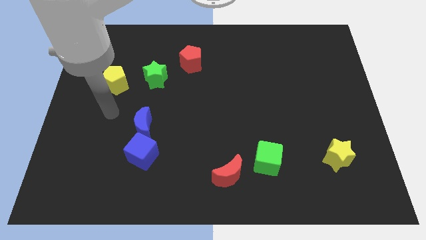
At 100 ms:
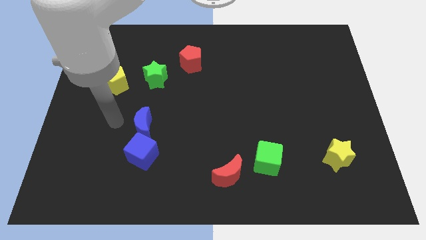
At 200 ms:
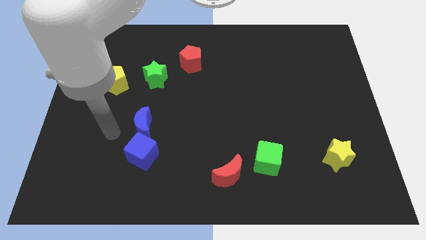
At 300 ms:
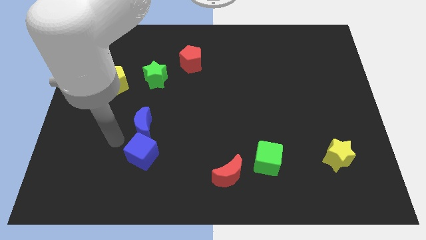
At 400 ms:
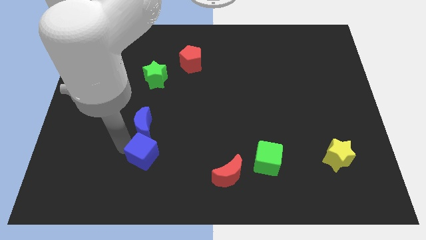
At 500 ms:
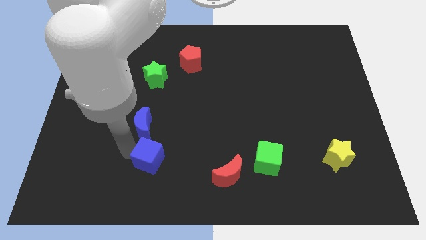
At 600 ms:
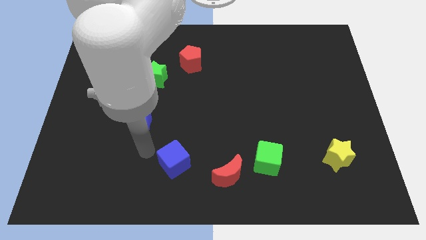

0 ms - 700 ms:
separate the blue moon from the blue cube

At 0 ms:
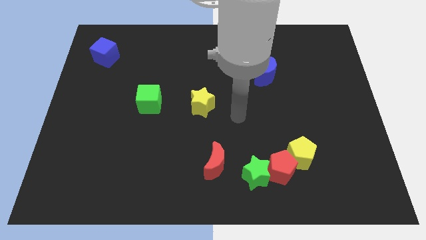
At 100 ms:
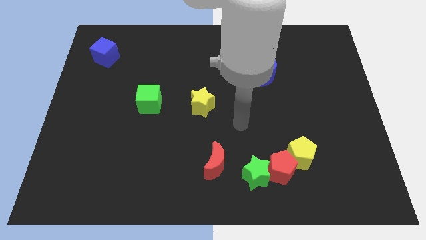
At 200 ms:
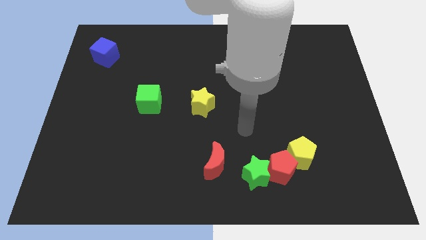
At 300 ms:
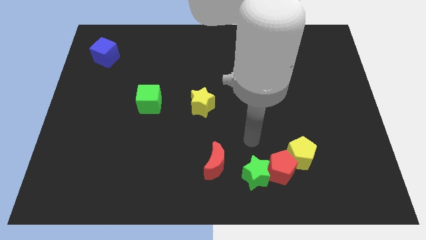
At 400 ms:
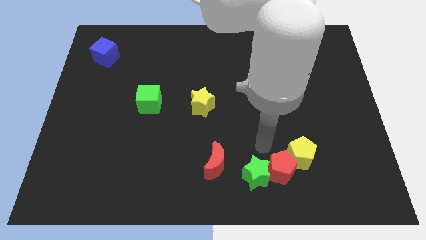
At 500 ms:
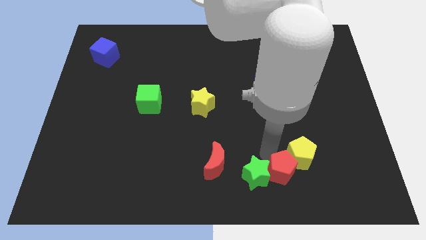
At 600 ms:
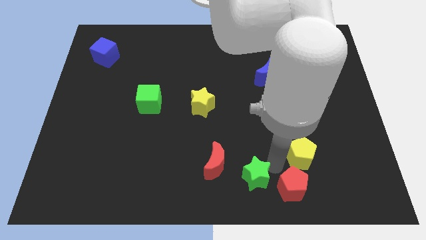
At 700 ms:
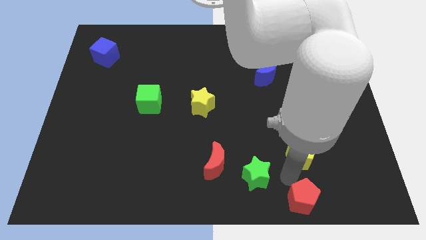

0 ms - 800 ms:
pull the yellow pentagon apart from the red pentagon

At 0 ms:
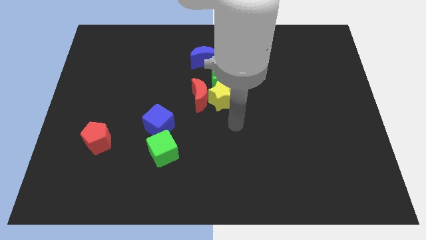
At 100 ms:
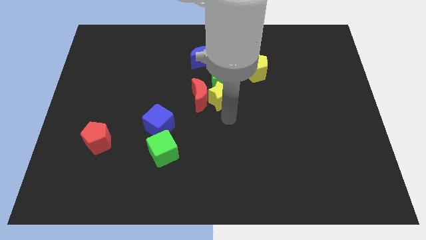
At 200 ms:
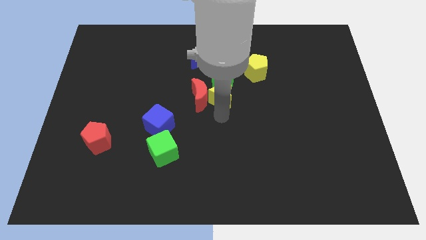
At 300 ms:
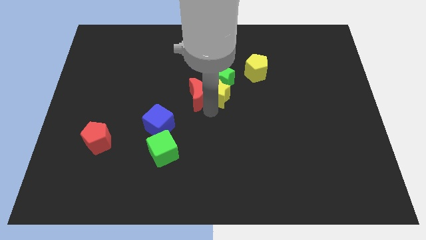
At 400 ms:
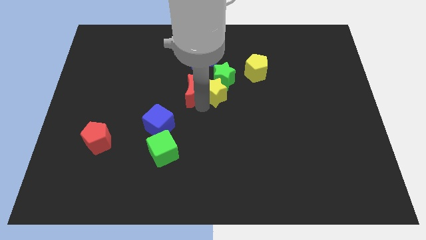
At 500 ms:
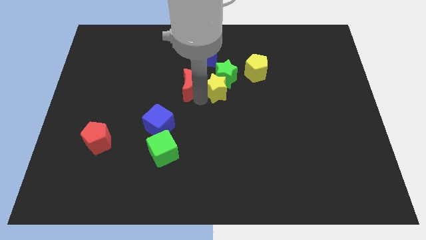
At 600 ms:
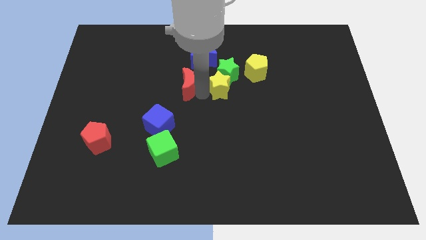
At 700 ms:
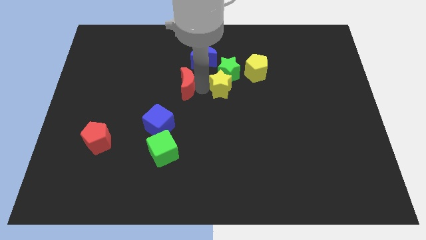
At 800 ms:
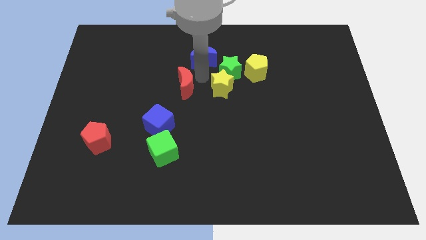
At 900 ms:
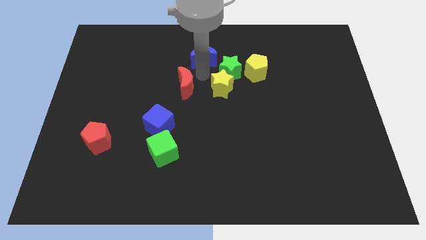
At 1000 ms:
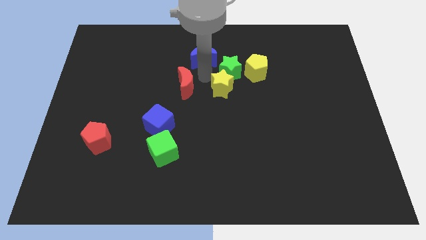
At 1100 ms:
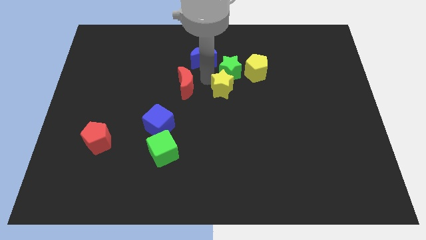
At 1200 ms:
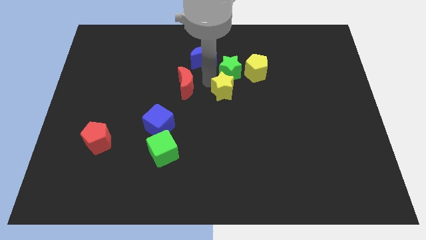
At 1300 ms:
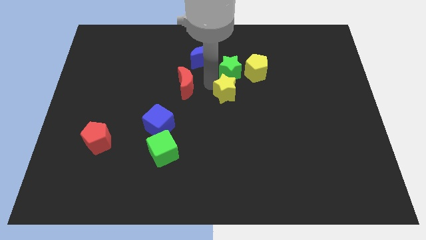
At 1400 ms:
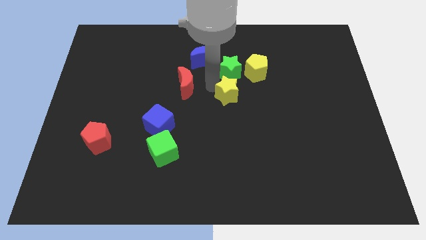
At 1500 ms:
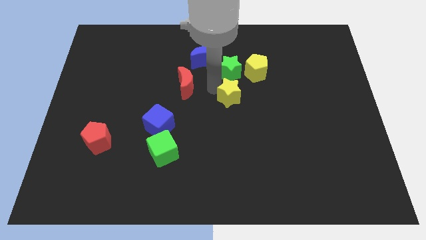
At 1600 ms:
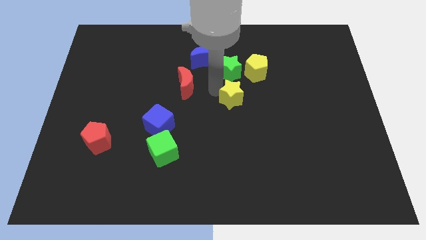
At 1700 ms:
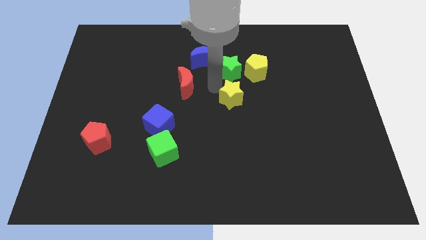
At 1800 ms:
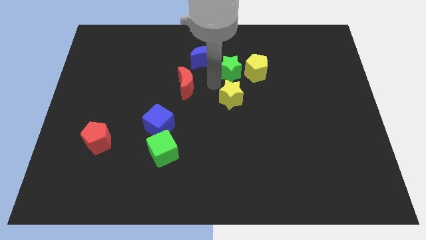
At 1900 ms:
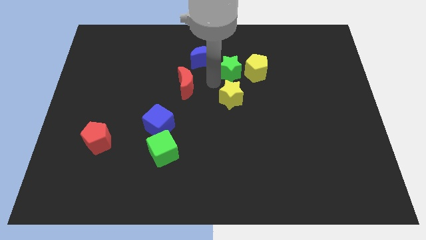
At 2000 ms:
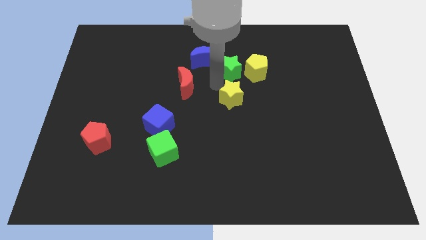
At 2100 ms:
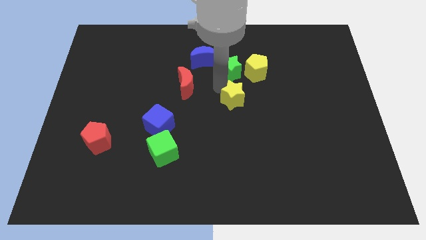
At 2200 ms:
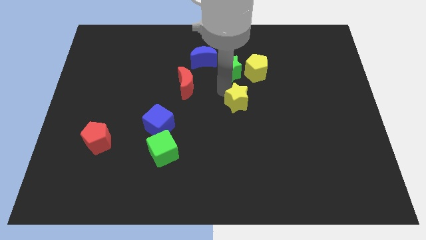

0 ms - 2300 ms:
pull the yellow star apart from the red moon and green star

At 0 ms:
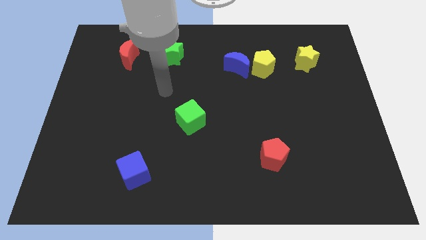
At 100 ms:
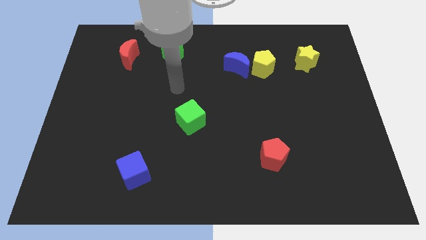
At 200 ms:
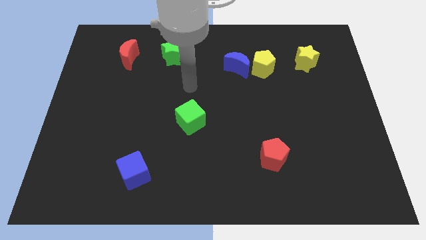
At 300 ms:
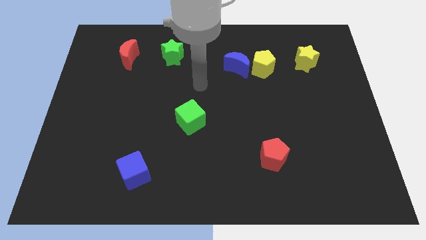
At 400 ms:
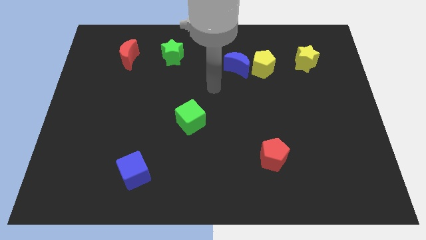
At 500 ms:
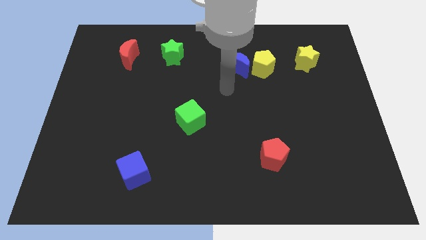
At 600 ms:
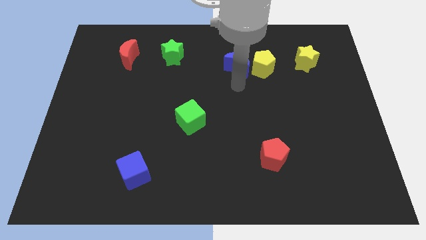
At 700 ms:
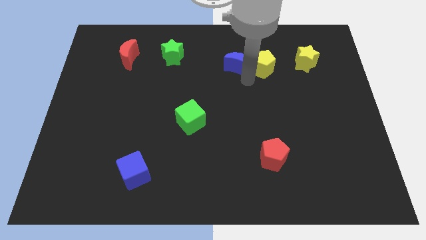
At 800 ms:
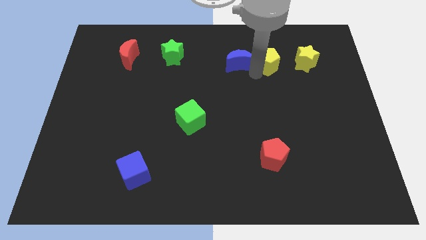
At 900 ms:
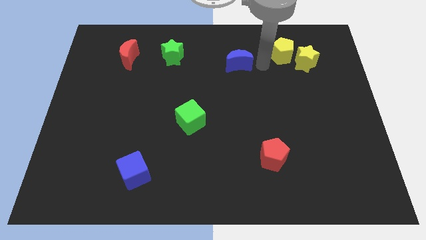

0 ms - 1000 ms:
move the blue moon away from the yellow pentagon

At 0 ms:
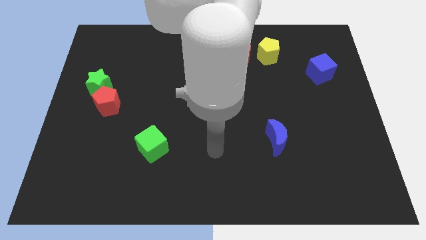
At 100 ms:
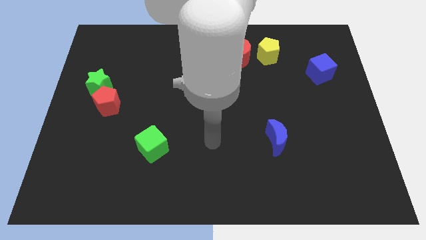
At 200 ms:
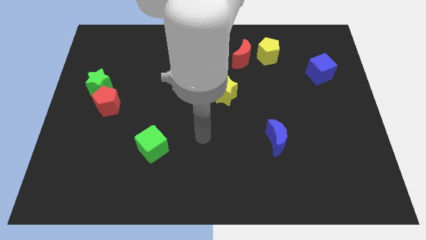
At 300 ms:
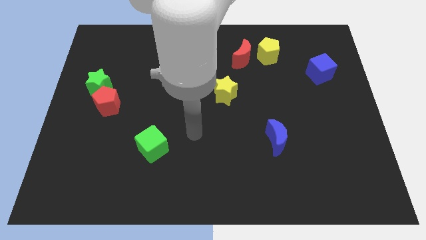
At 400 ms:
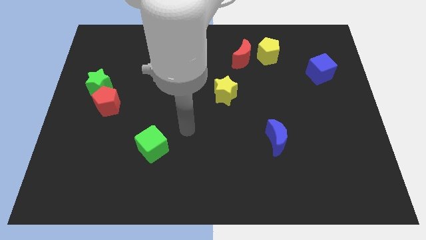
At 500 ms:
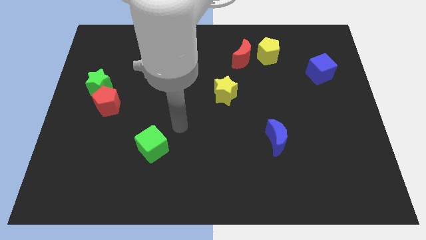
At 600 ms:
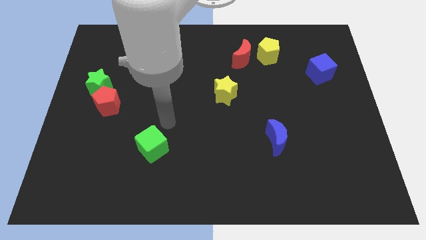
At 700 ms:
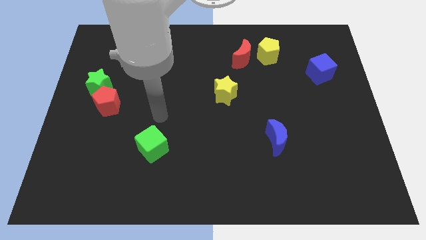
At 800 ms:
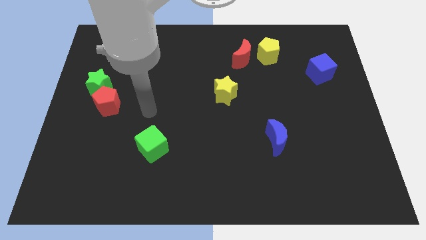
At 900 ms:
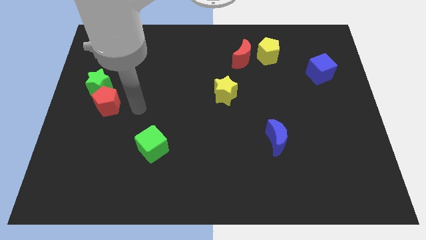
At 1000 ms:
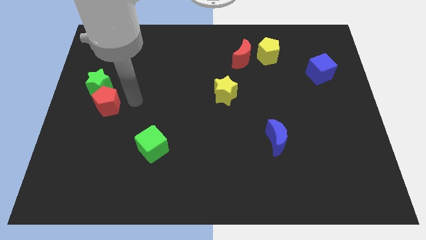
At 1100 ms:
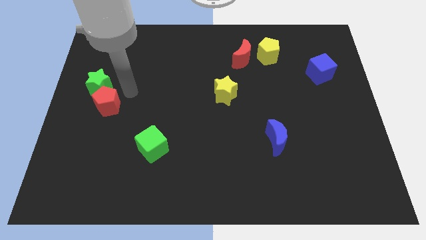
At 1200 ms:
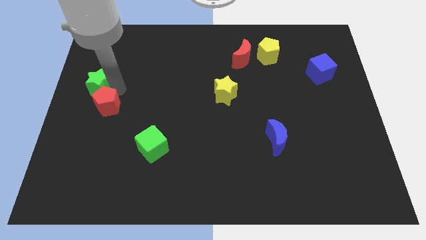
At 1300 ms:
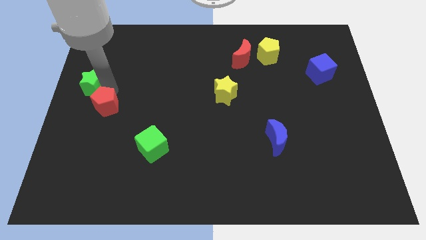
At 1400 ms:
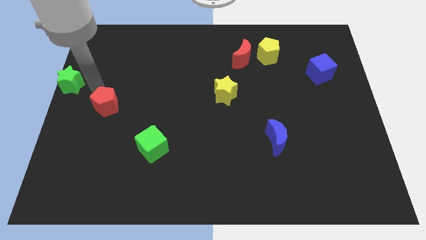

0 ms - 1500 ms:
pull the red pentagon apart from the green star

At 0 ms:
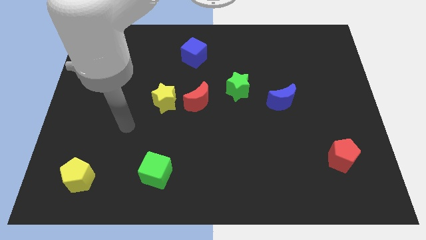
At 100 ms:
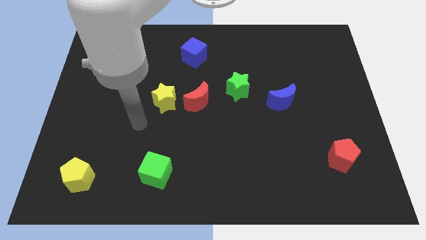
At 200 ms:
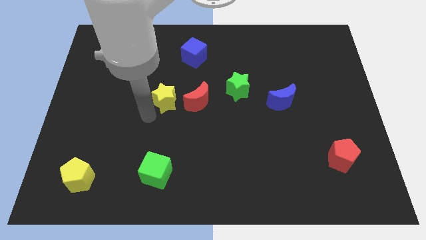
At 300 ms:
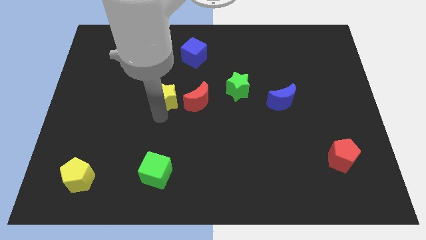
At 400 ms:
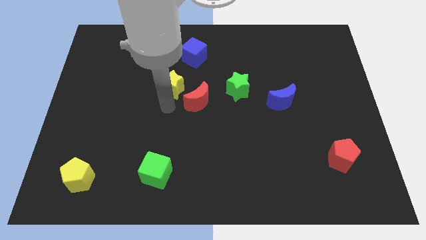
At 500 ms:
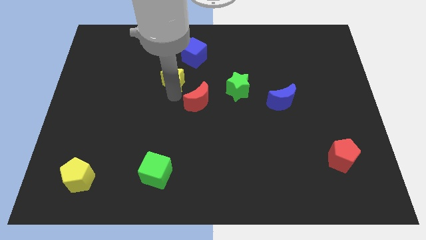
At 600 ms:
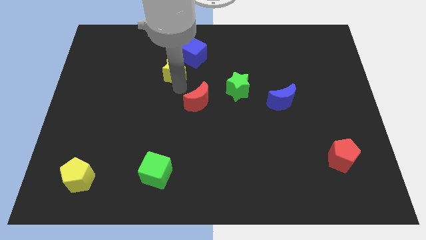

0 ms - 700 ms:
pull the red moon apart from the yellow star

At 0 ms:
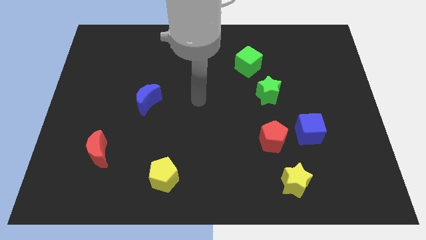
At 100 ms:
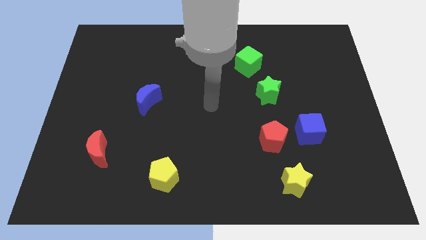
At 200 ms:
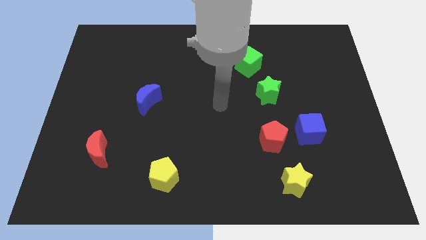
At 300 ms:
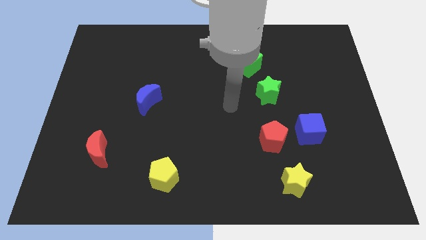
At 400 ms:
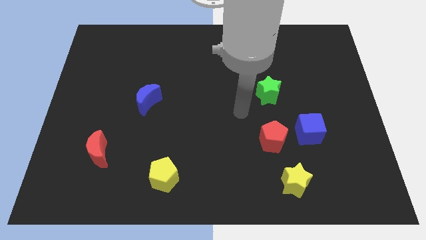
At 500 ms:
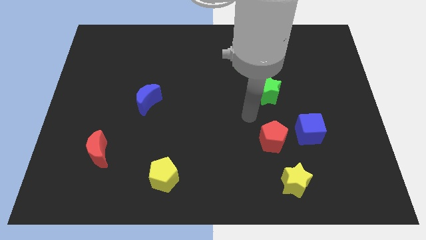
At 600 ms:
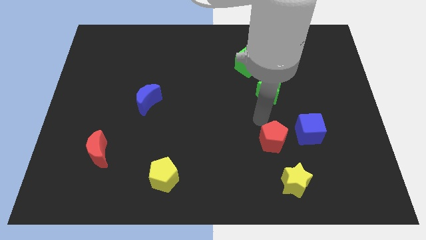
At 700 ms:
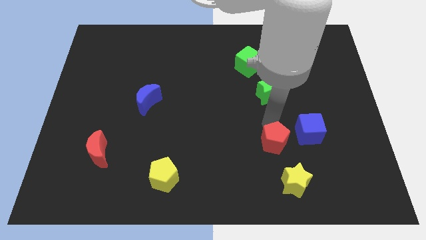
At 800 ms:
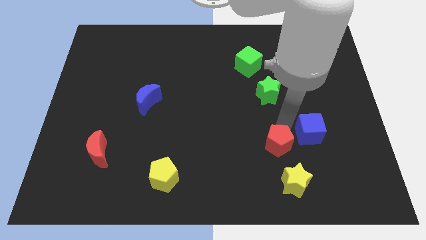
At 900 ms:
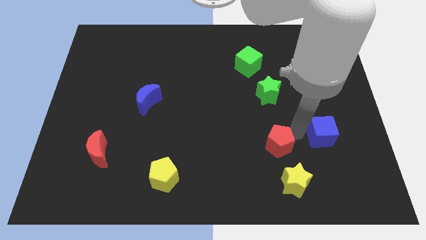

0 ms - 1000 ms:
pull the red pentagon apart from the blue cube

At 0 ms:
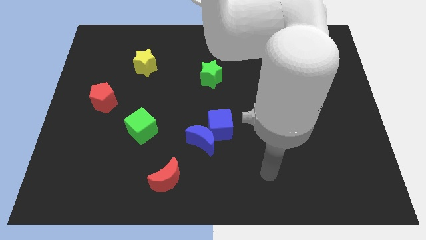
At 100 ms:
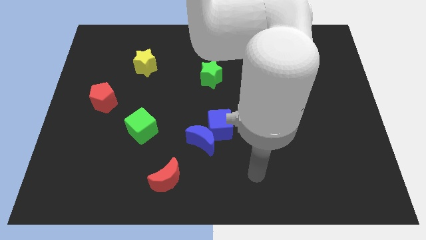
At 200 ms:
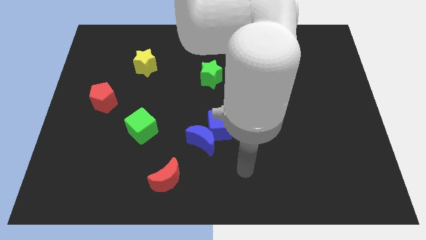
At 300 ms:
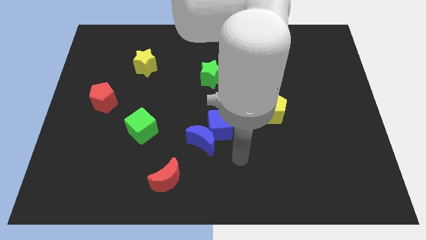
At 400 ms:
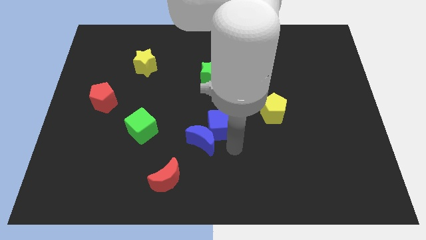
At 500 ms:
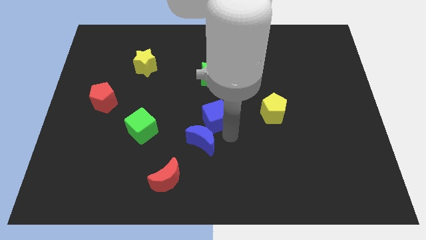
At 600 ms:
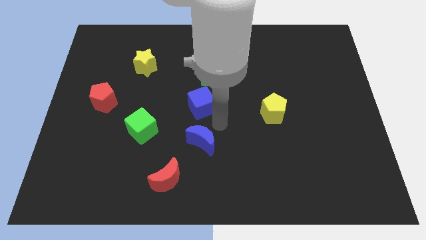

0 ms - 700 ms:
pull the blue moon apart from the blue cube

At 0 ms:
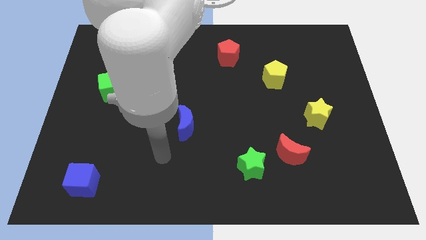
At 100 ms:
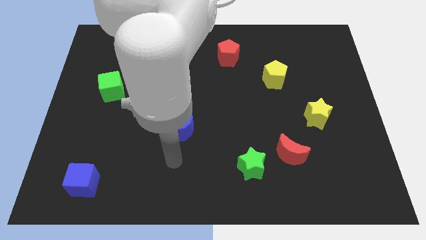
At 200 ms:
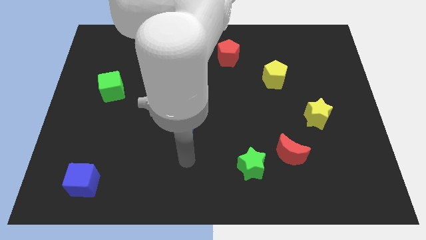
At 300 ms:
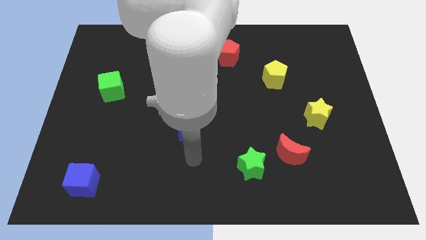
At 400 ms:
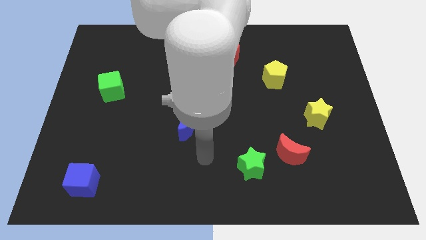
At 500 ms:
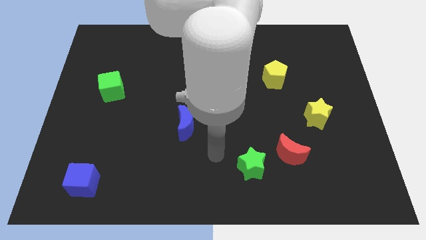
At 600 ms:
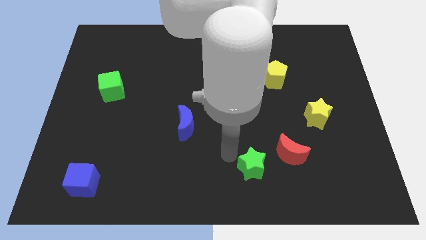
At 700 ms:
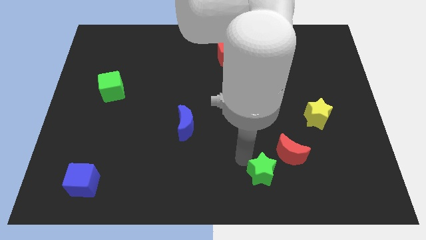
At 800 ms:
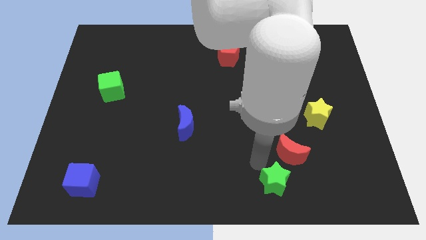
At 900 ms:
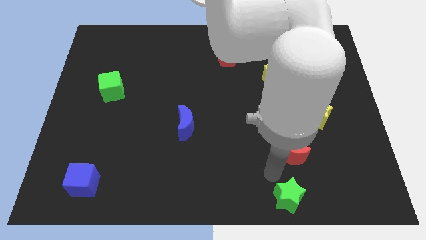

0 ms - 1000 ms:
pull the red moon apart from the green star
